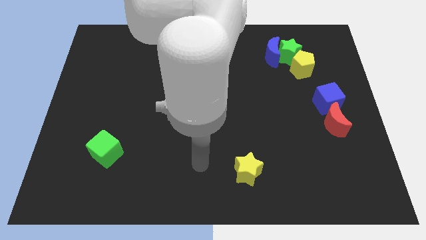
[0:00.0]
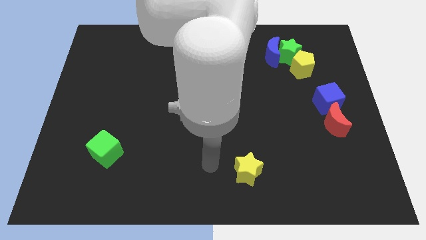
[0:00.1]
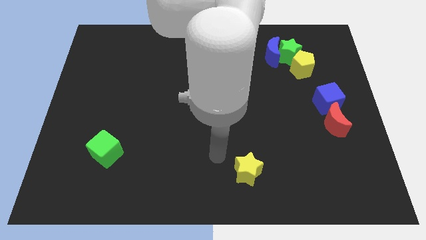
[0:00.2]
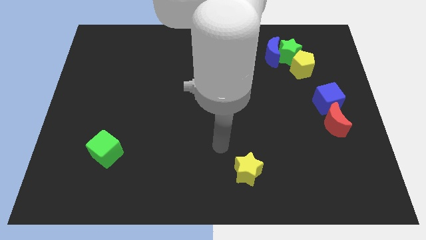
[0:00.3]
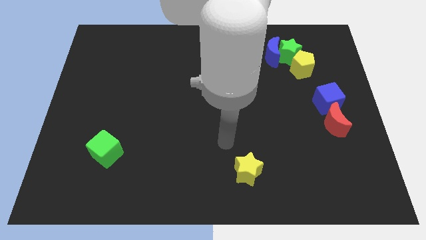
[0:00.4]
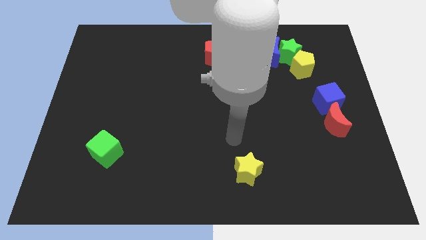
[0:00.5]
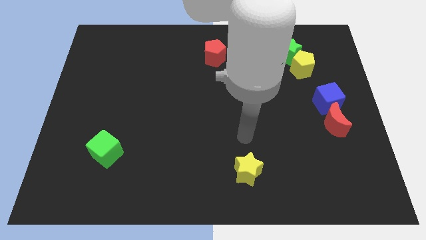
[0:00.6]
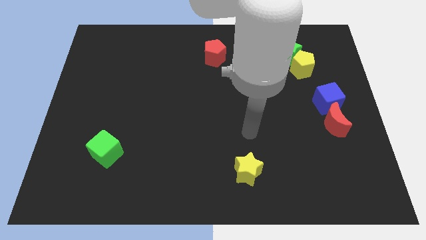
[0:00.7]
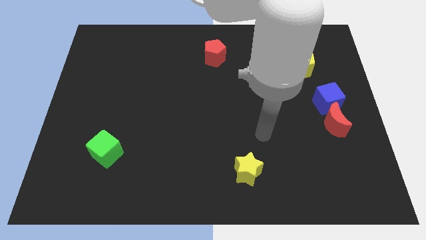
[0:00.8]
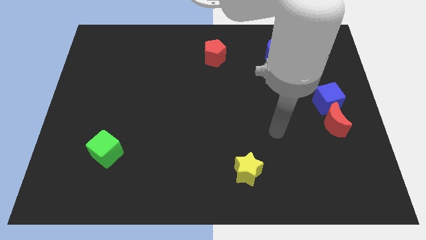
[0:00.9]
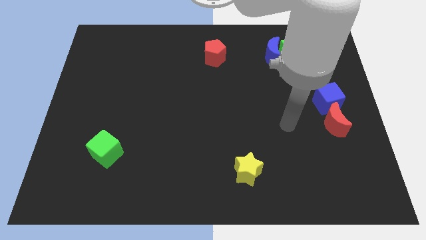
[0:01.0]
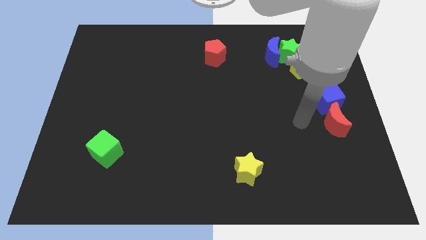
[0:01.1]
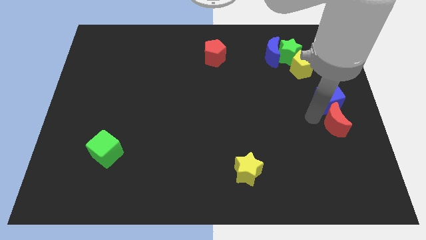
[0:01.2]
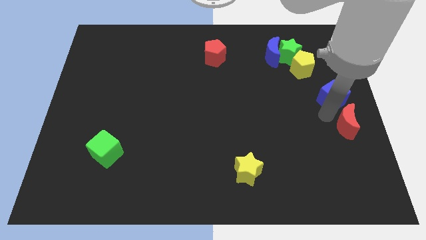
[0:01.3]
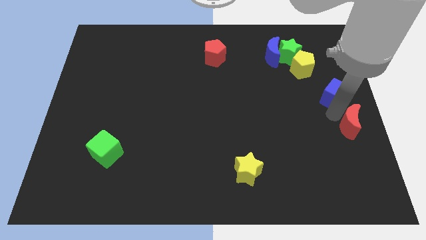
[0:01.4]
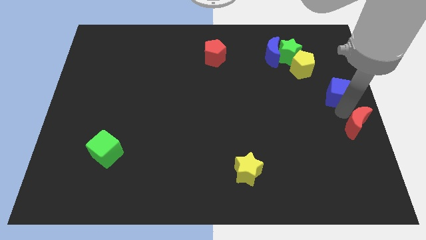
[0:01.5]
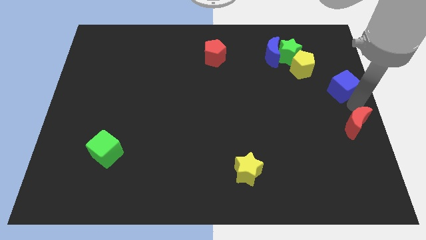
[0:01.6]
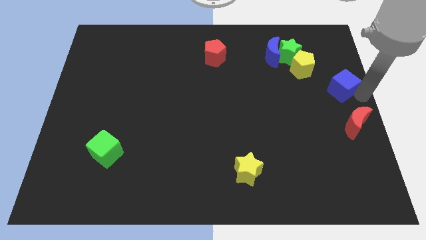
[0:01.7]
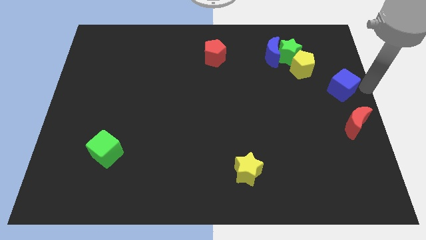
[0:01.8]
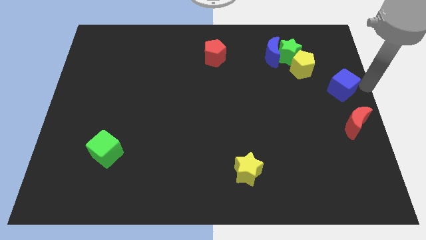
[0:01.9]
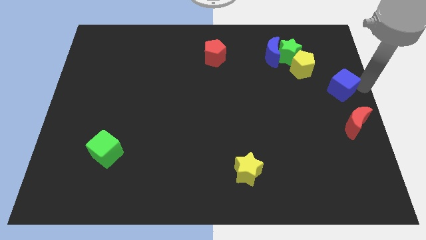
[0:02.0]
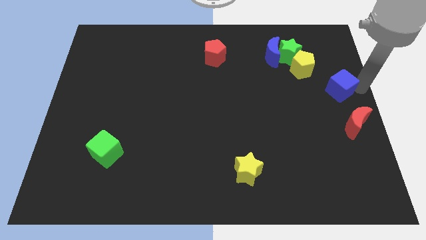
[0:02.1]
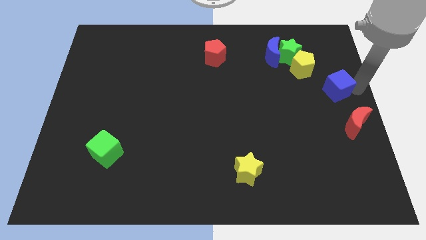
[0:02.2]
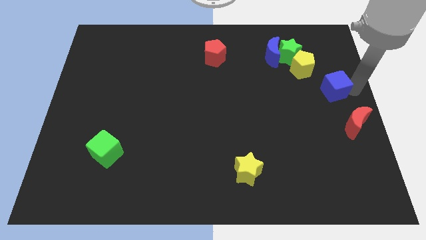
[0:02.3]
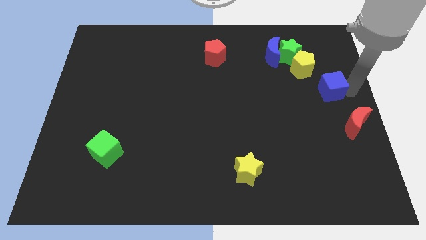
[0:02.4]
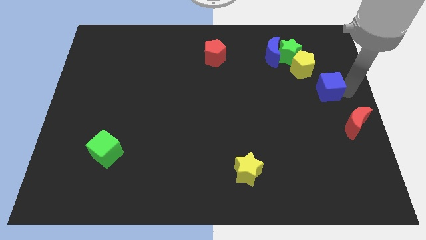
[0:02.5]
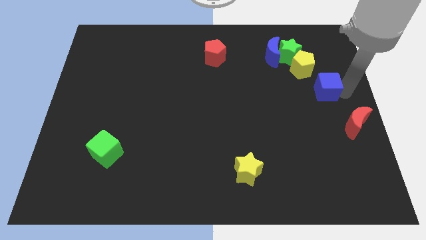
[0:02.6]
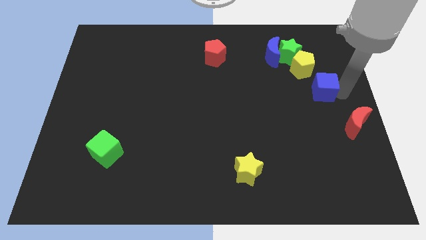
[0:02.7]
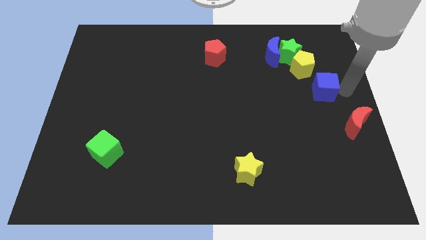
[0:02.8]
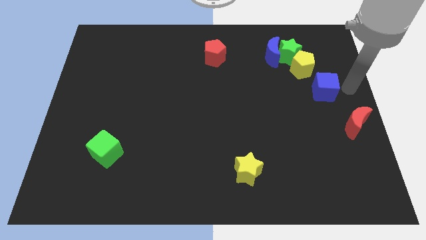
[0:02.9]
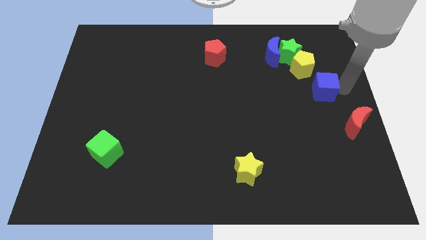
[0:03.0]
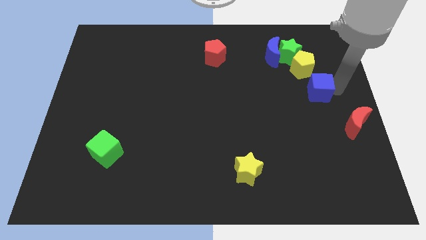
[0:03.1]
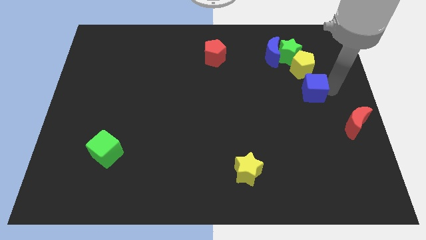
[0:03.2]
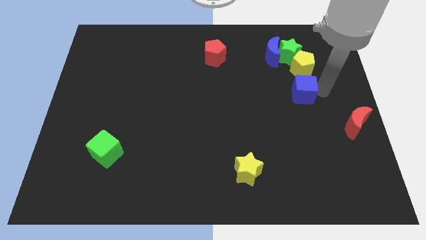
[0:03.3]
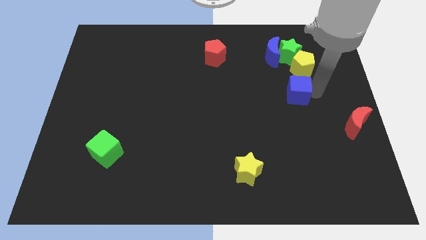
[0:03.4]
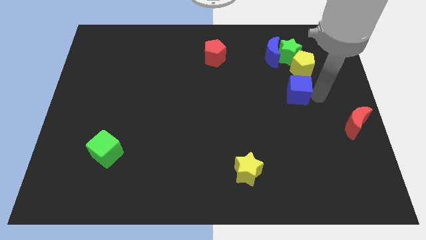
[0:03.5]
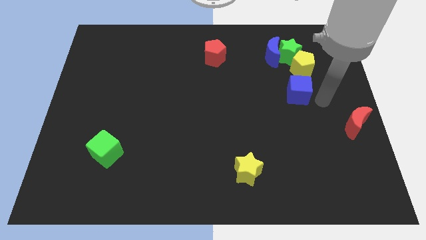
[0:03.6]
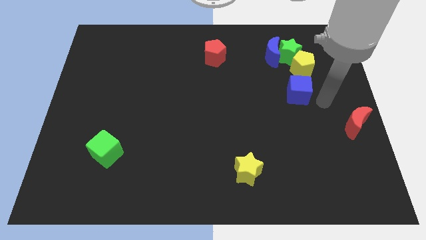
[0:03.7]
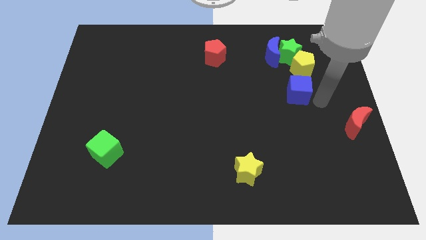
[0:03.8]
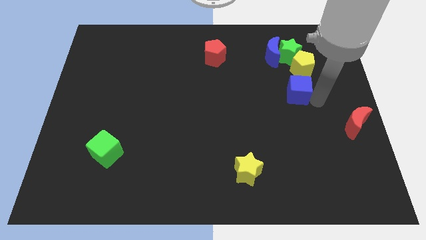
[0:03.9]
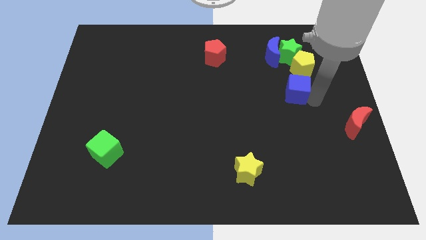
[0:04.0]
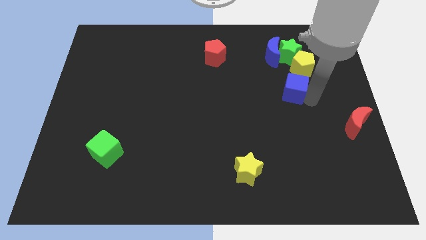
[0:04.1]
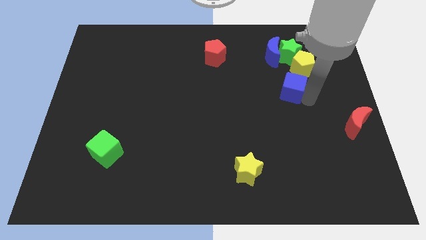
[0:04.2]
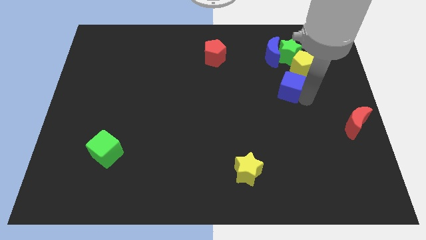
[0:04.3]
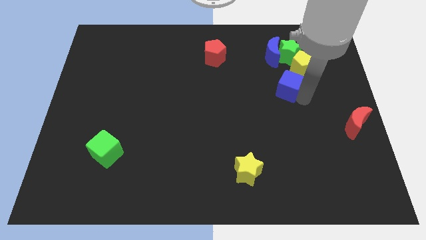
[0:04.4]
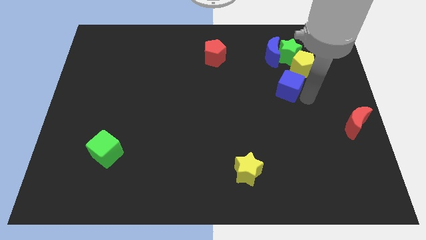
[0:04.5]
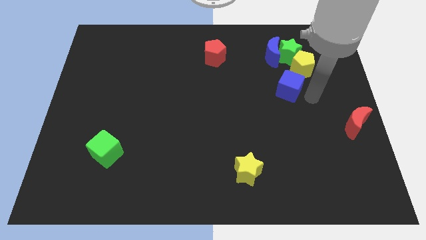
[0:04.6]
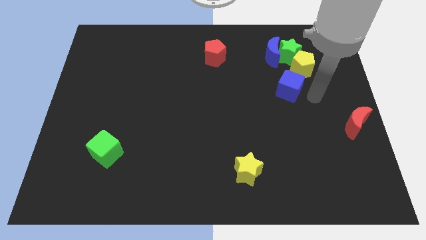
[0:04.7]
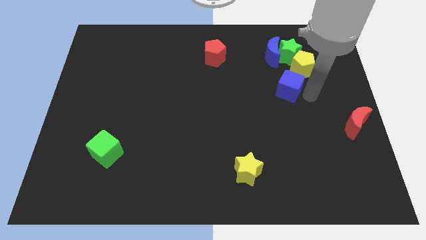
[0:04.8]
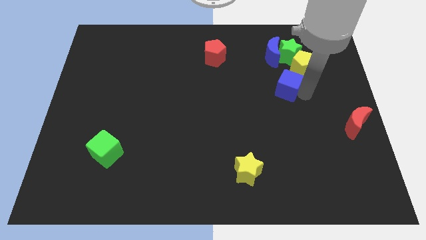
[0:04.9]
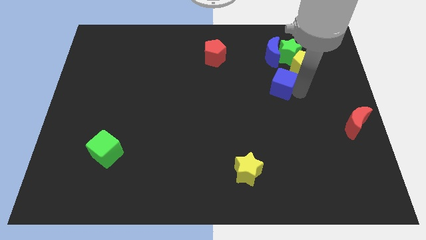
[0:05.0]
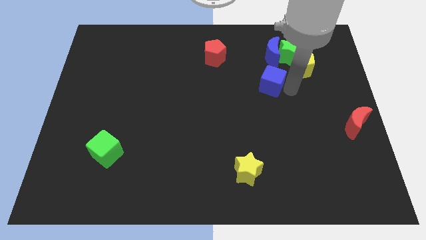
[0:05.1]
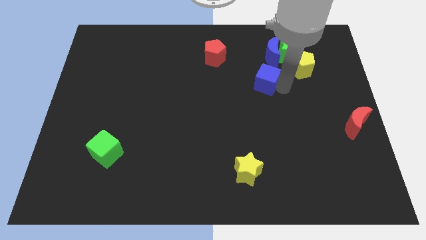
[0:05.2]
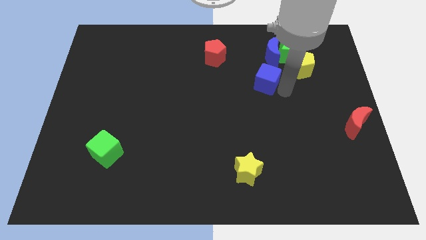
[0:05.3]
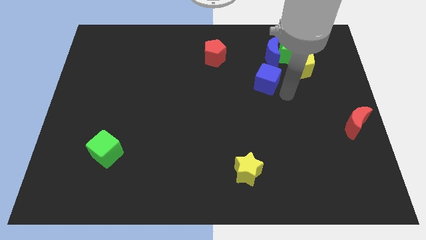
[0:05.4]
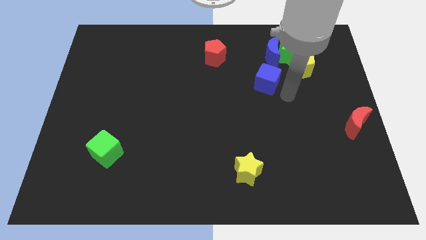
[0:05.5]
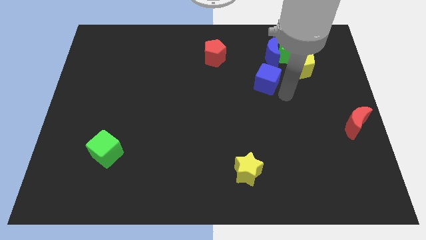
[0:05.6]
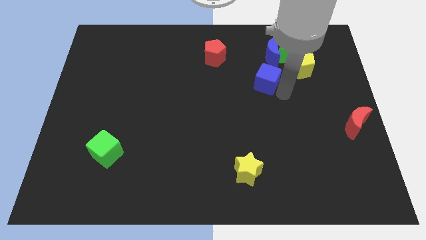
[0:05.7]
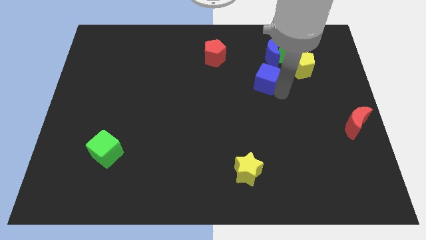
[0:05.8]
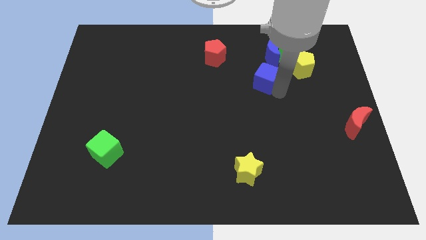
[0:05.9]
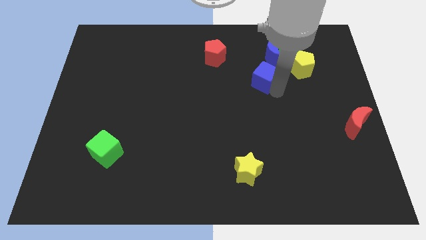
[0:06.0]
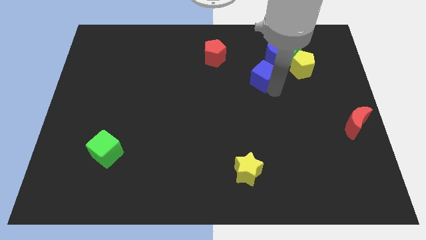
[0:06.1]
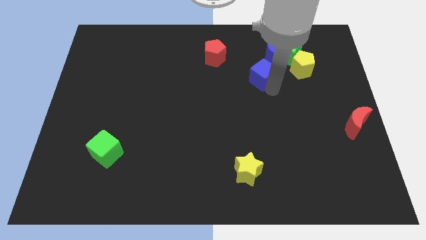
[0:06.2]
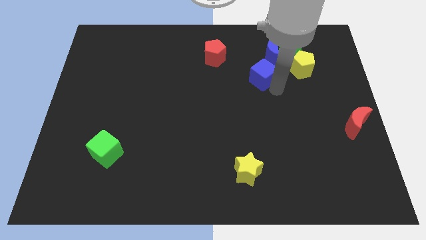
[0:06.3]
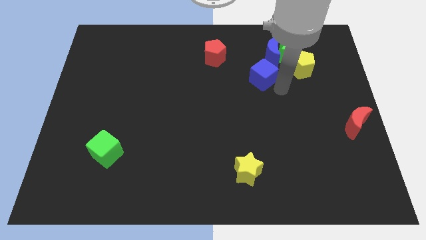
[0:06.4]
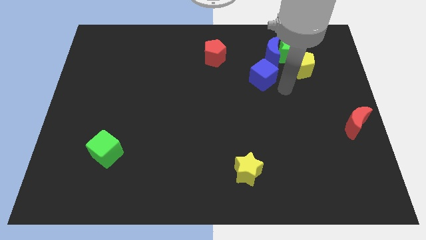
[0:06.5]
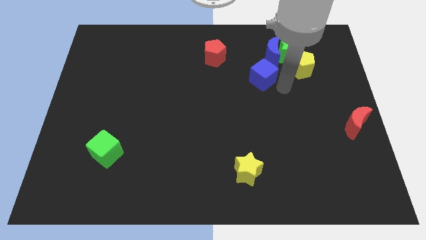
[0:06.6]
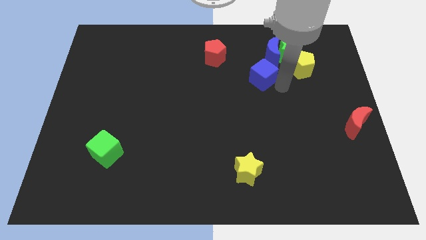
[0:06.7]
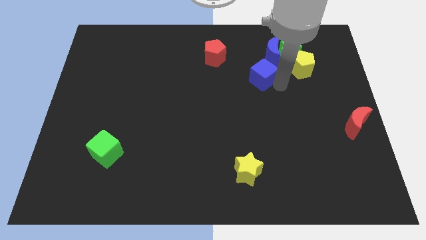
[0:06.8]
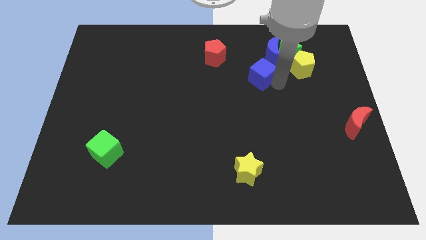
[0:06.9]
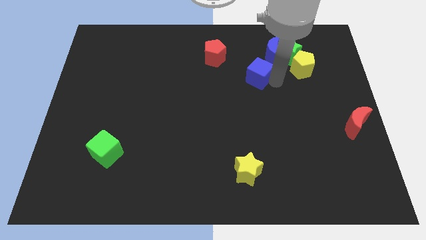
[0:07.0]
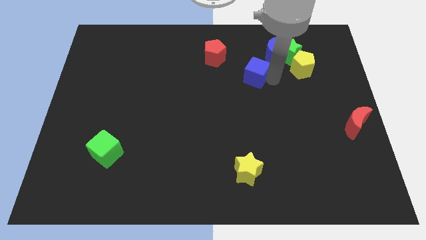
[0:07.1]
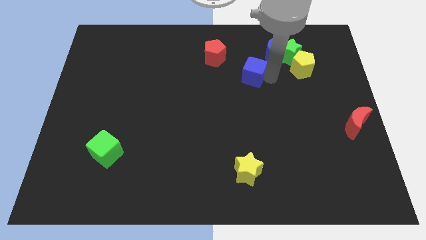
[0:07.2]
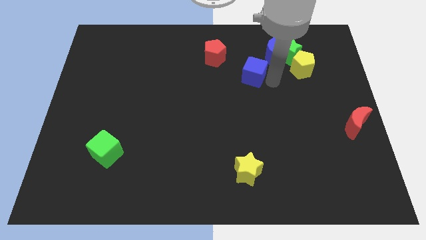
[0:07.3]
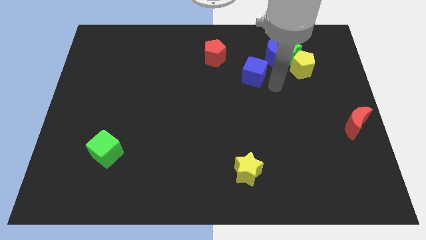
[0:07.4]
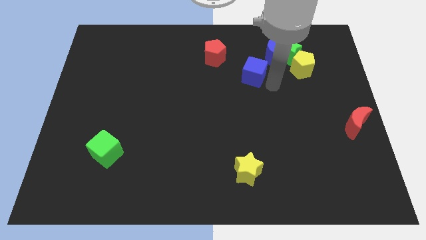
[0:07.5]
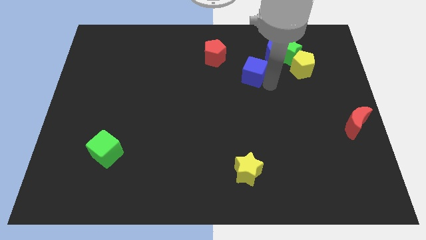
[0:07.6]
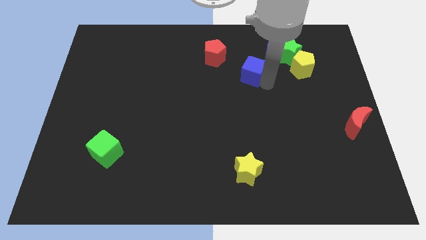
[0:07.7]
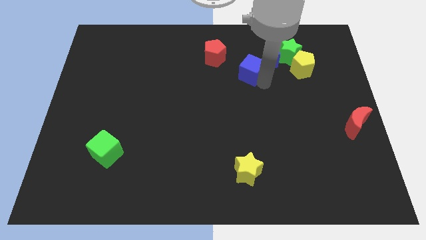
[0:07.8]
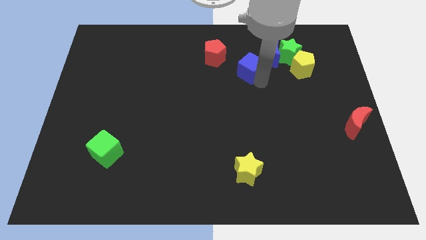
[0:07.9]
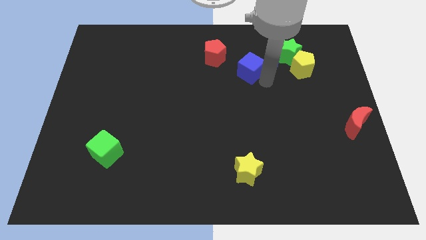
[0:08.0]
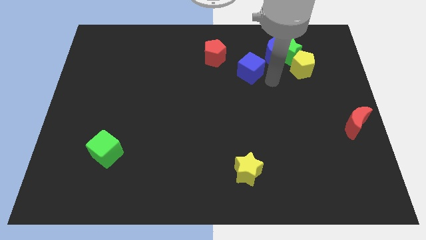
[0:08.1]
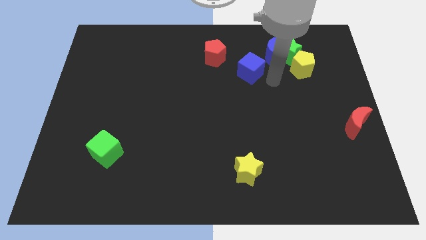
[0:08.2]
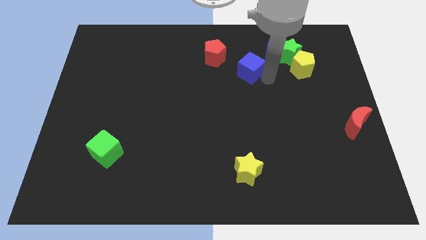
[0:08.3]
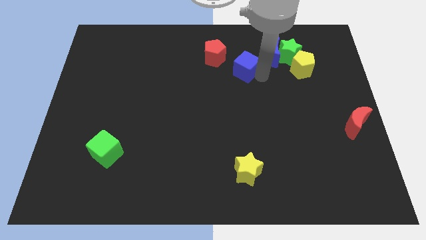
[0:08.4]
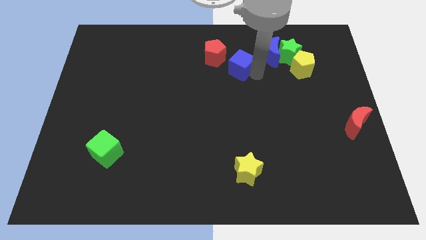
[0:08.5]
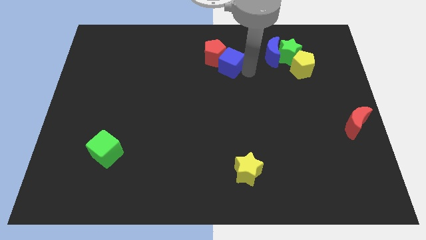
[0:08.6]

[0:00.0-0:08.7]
slide the blue cube next to the red pentagon
